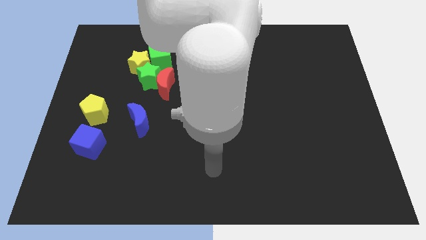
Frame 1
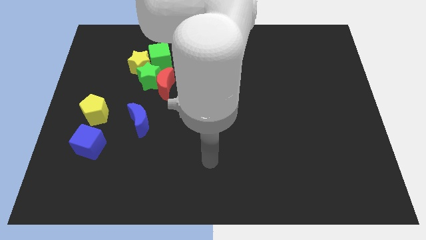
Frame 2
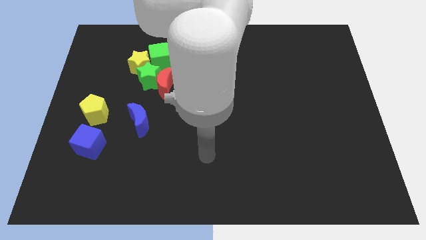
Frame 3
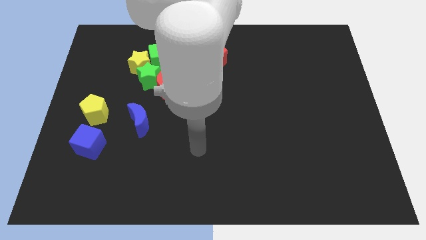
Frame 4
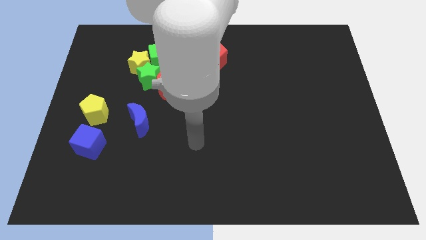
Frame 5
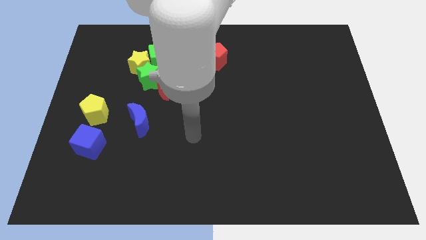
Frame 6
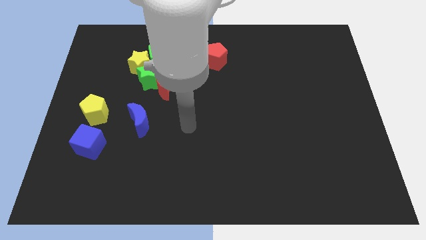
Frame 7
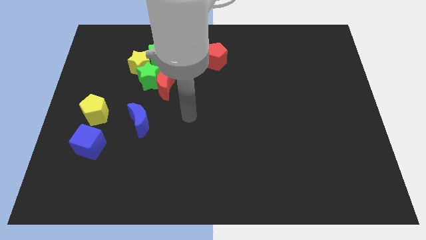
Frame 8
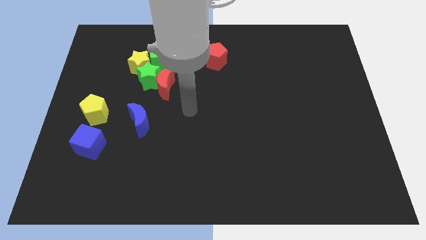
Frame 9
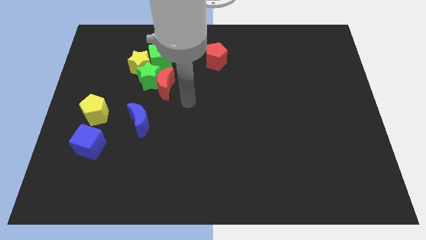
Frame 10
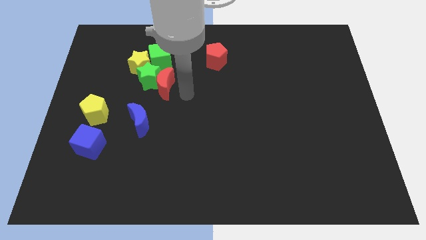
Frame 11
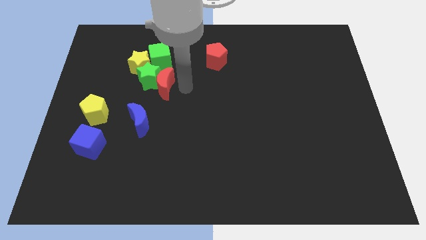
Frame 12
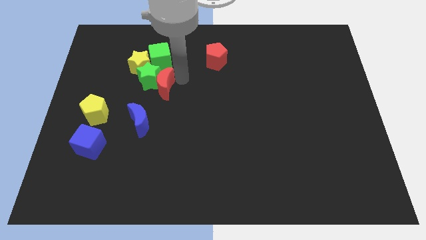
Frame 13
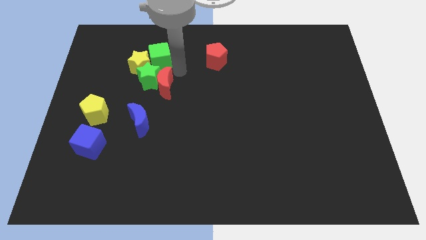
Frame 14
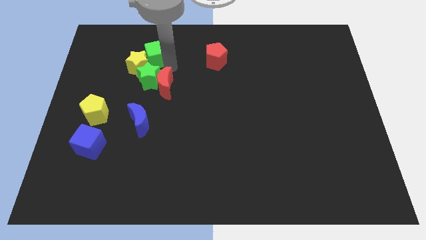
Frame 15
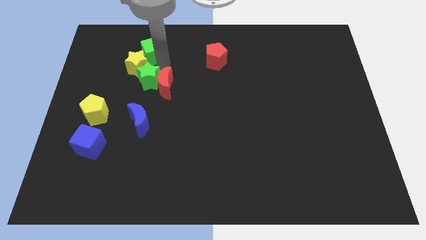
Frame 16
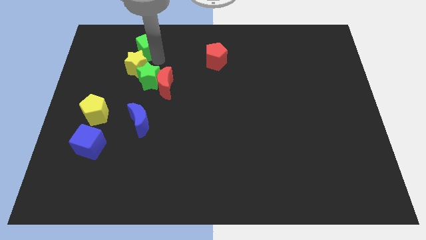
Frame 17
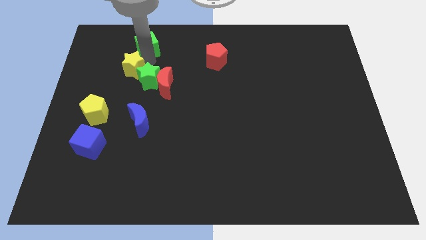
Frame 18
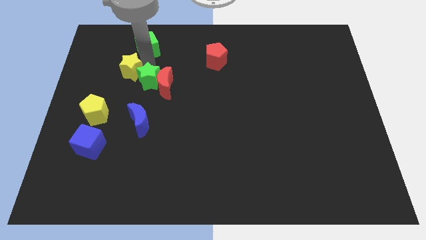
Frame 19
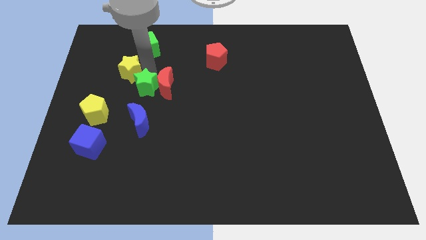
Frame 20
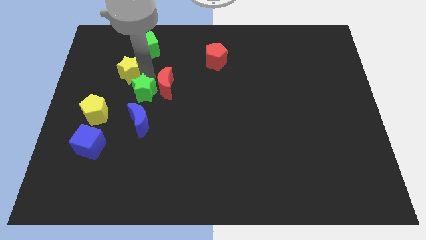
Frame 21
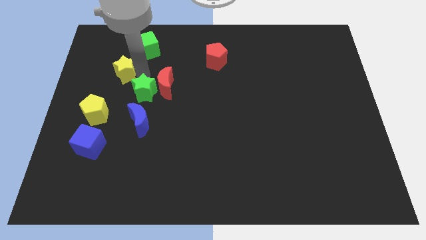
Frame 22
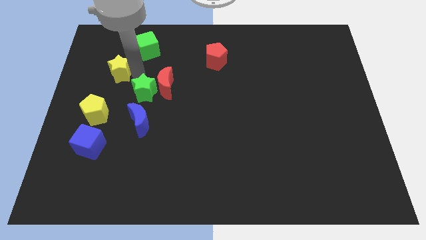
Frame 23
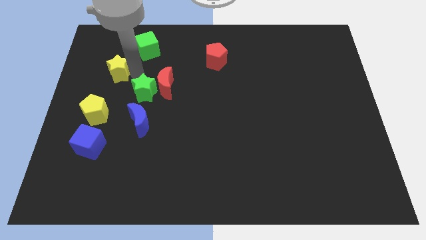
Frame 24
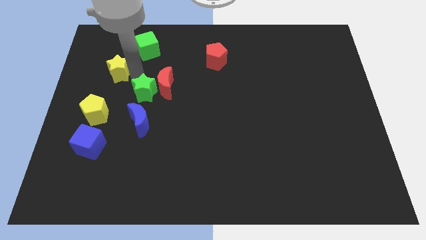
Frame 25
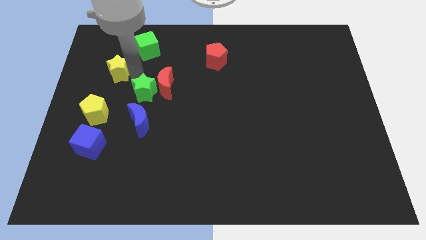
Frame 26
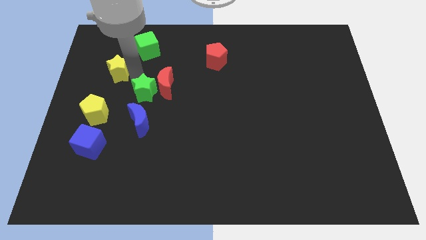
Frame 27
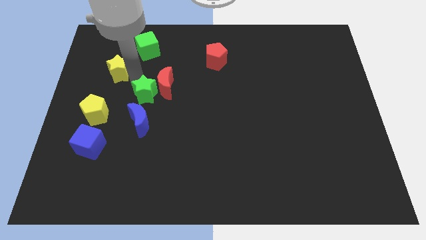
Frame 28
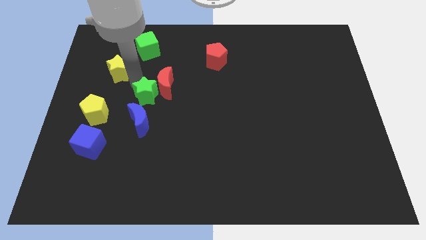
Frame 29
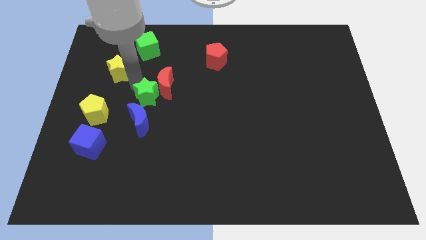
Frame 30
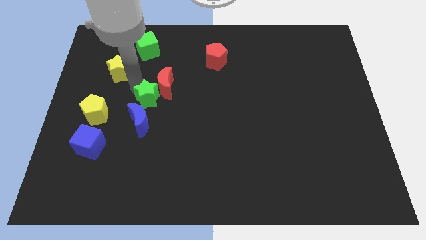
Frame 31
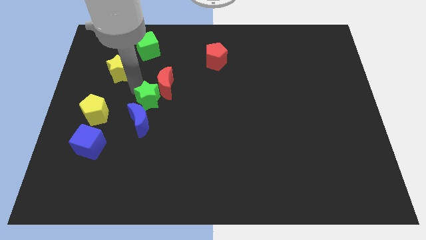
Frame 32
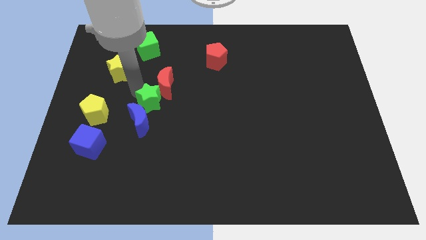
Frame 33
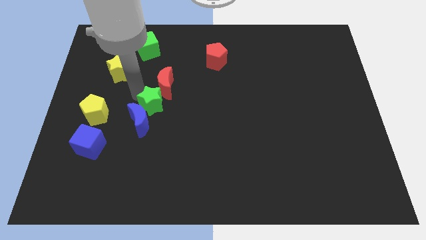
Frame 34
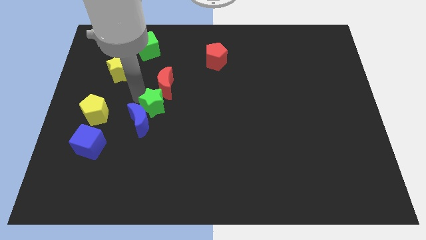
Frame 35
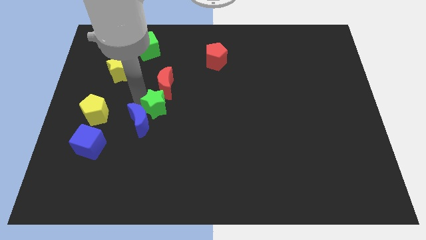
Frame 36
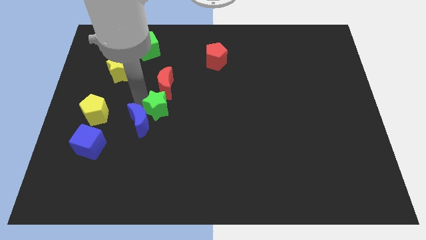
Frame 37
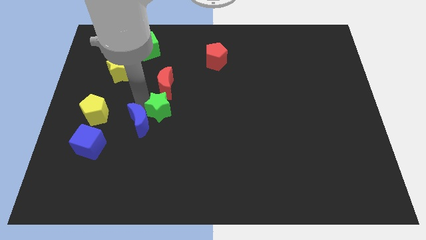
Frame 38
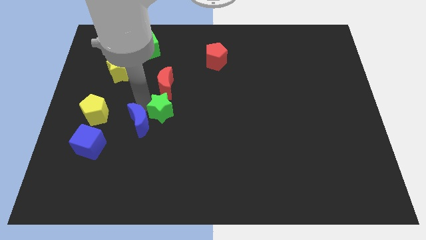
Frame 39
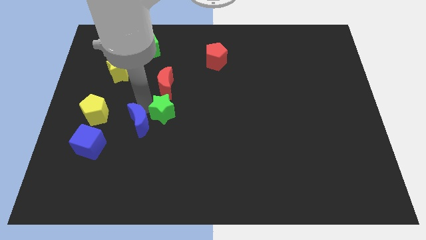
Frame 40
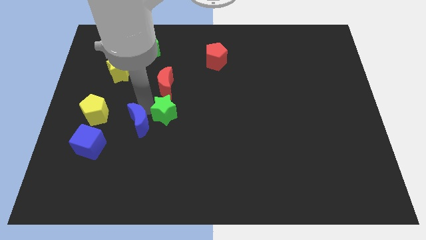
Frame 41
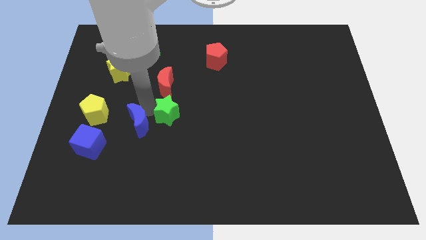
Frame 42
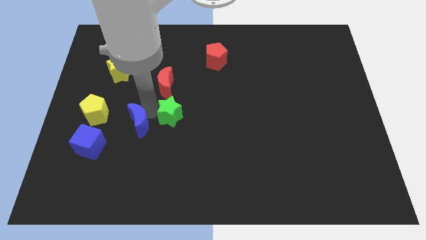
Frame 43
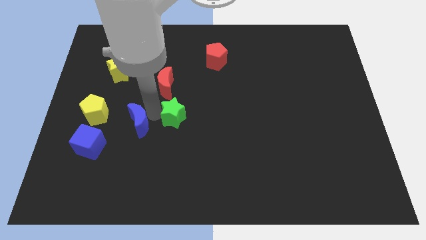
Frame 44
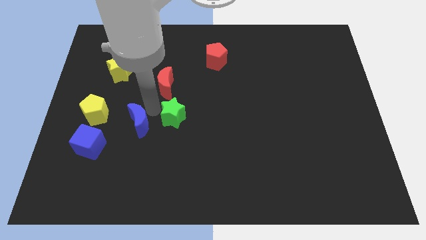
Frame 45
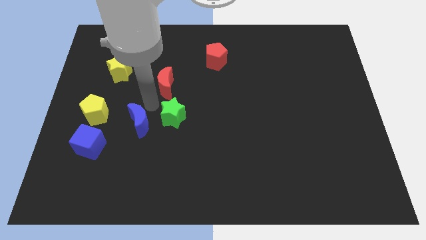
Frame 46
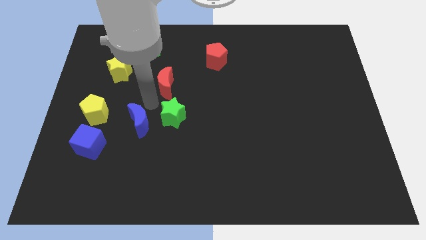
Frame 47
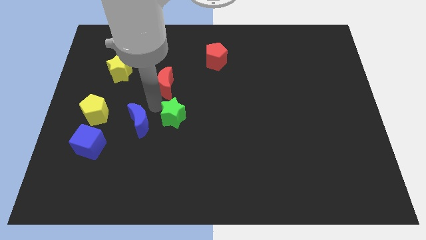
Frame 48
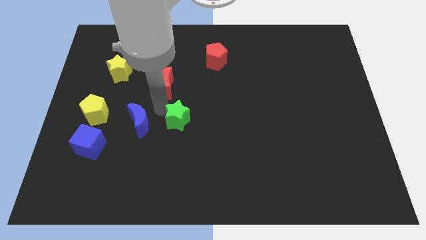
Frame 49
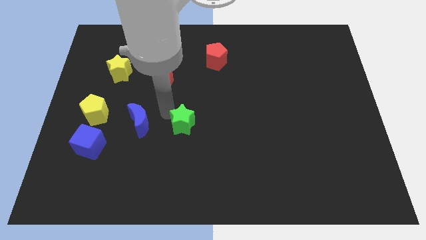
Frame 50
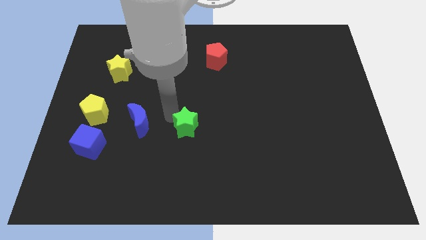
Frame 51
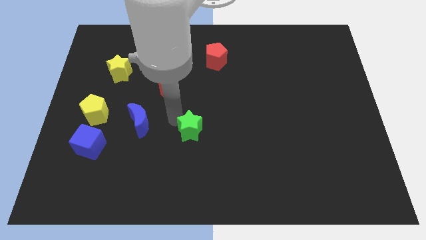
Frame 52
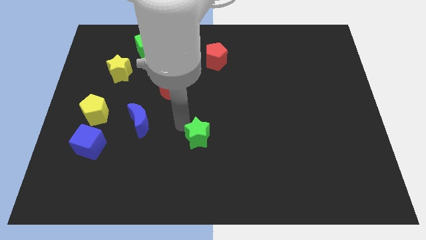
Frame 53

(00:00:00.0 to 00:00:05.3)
slide the green star down and to the right

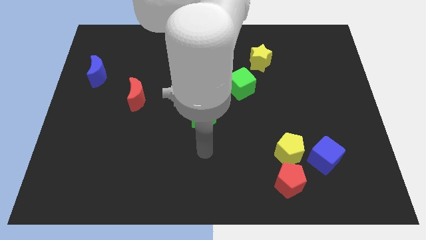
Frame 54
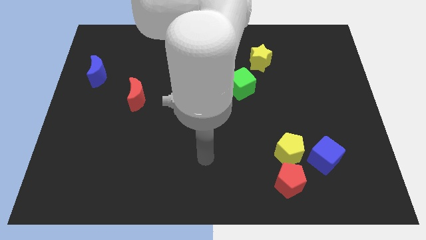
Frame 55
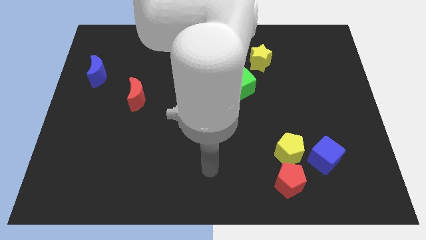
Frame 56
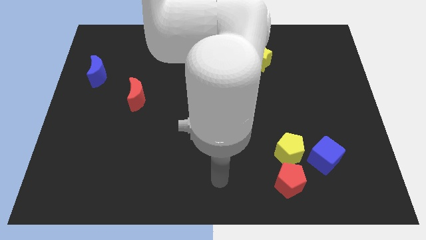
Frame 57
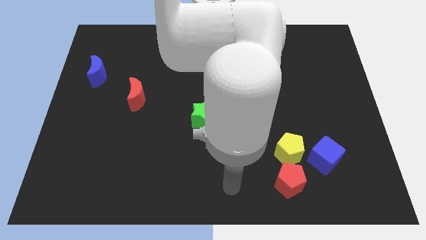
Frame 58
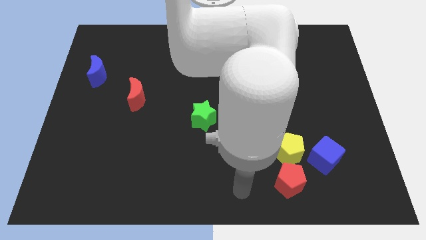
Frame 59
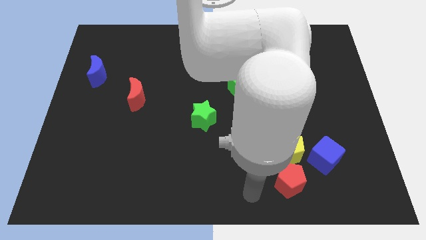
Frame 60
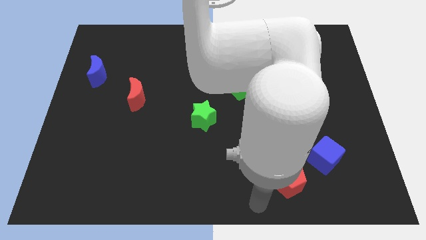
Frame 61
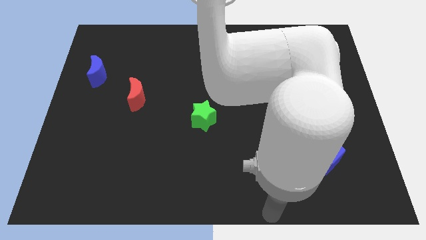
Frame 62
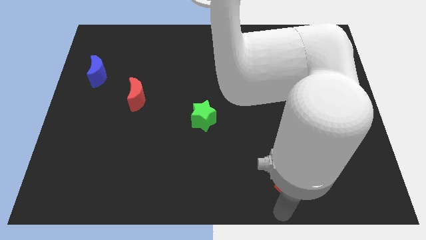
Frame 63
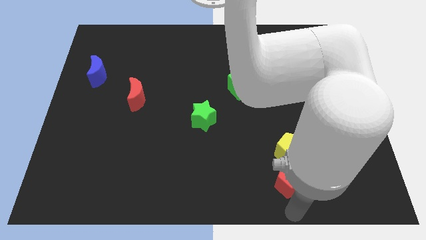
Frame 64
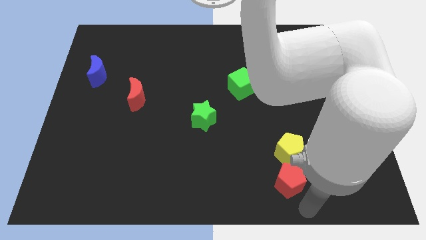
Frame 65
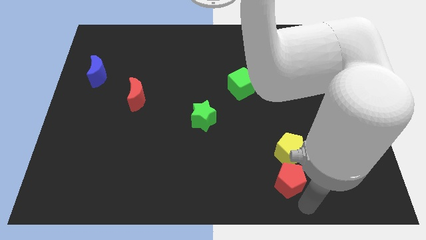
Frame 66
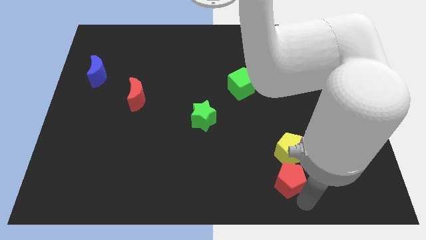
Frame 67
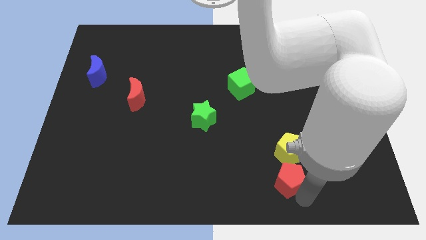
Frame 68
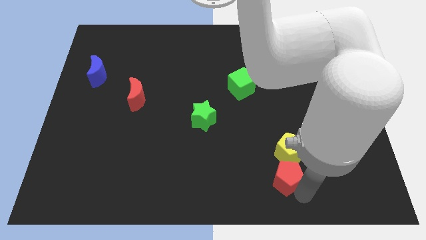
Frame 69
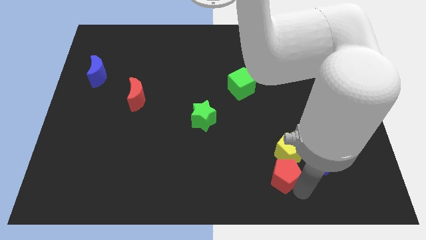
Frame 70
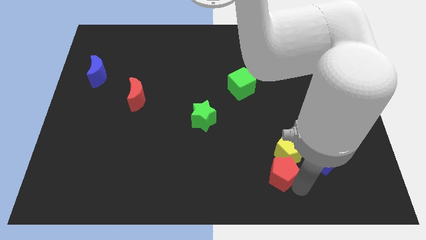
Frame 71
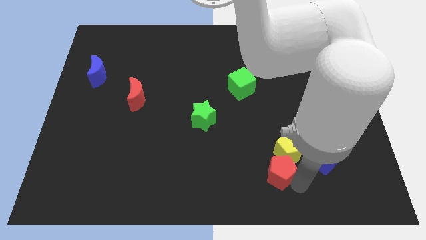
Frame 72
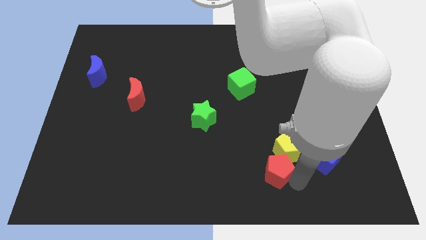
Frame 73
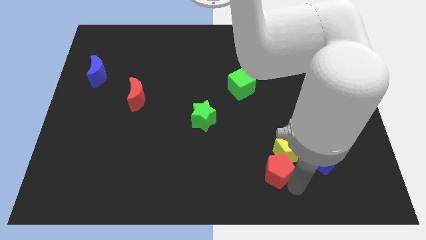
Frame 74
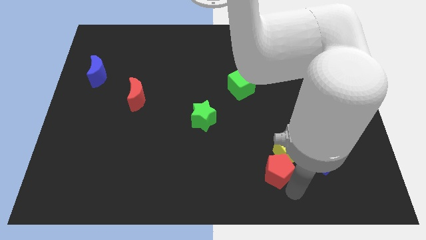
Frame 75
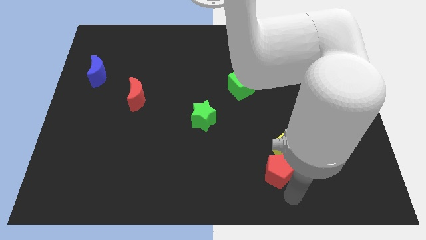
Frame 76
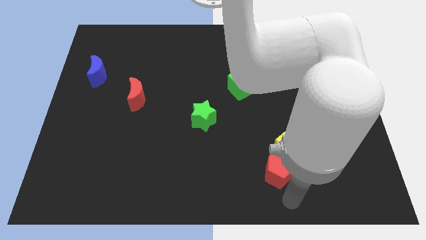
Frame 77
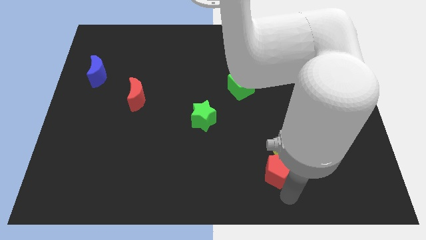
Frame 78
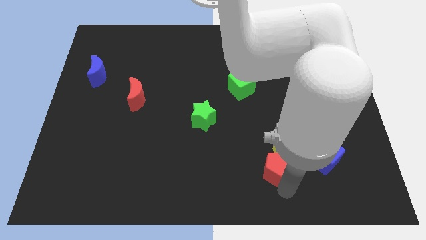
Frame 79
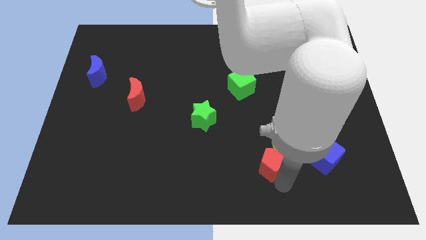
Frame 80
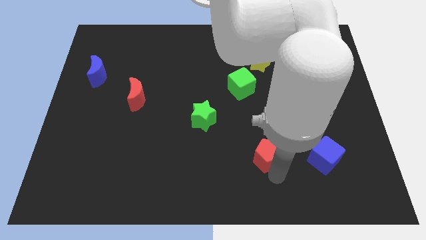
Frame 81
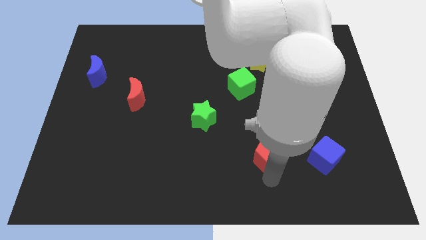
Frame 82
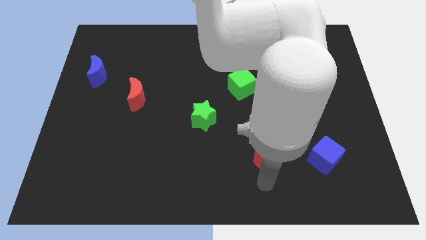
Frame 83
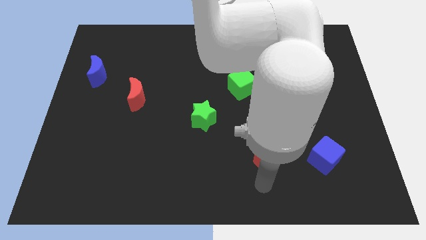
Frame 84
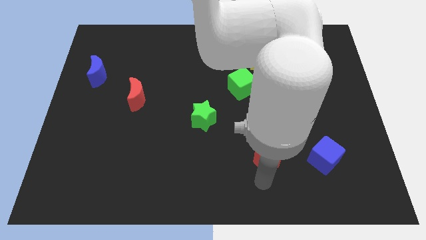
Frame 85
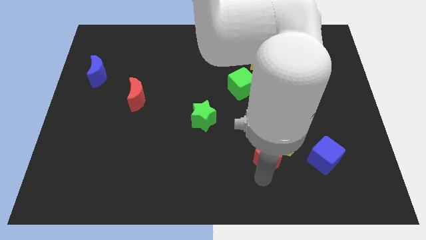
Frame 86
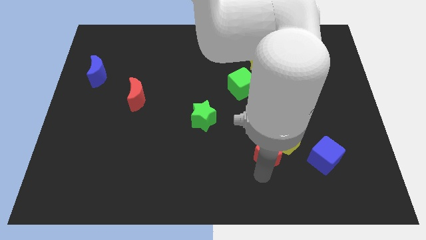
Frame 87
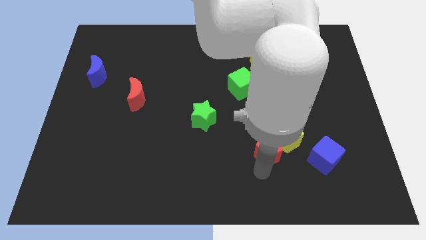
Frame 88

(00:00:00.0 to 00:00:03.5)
slide the red pentagon a little bit up
